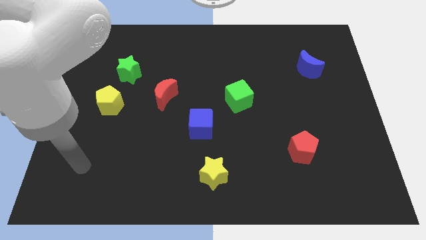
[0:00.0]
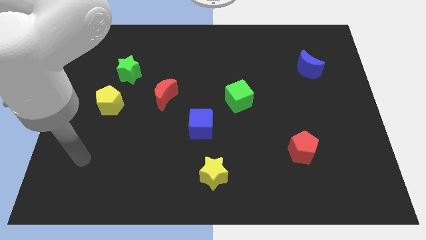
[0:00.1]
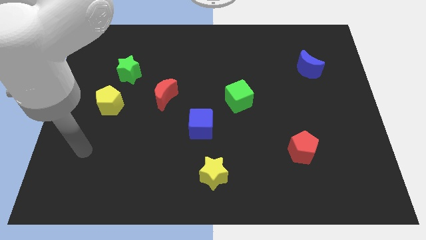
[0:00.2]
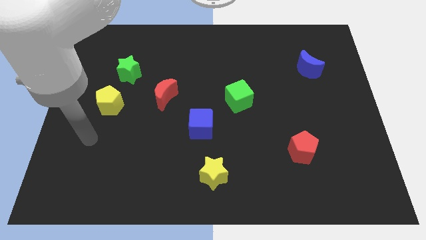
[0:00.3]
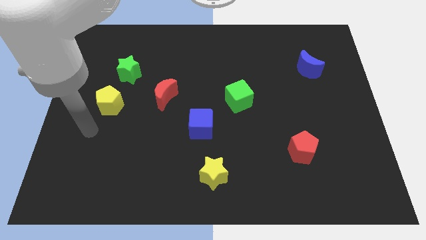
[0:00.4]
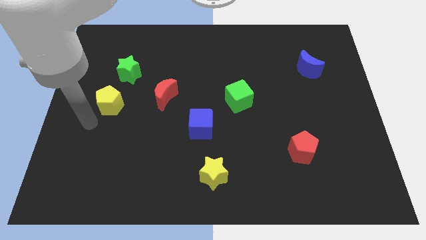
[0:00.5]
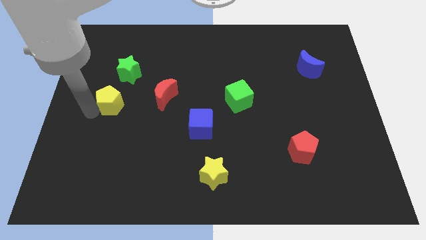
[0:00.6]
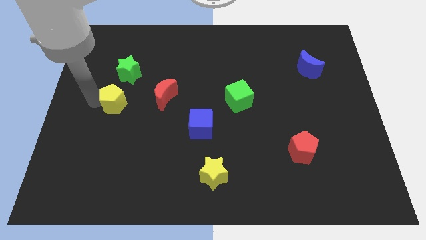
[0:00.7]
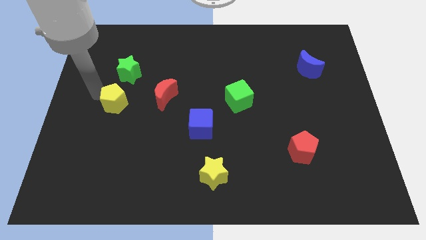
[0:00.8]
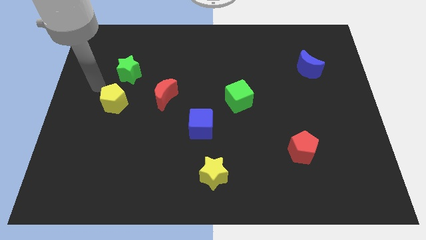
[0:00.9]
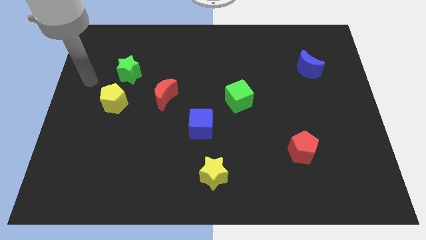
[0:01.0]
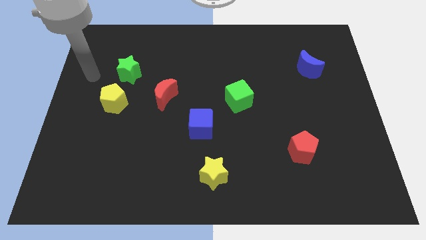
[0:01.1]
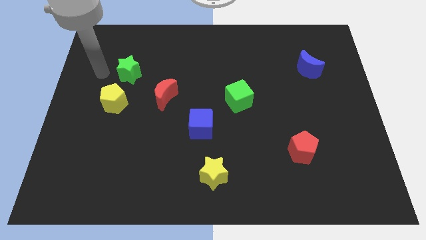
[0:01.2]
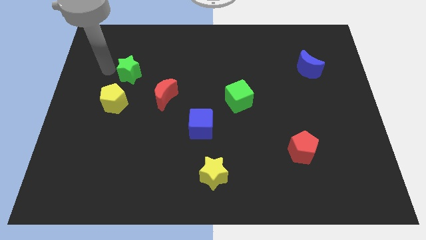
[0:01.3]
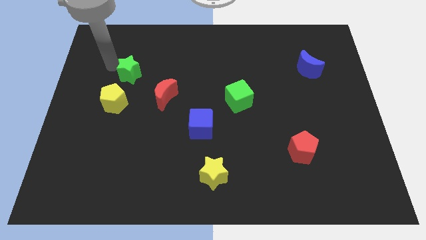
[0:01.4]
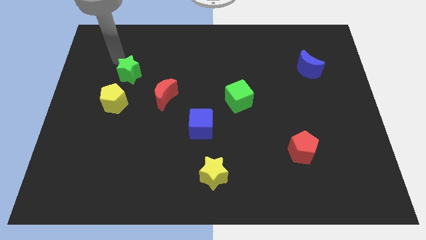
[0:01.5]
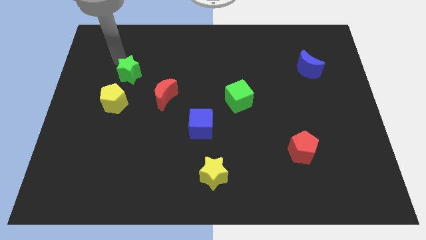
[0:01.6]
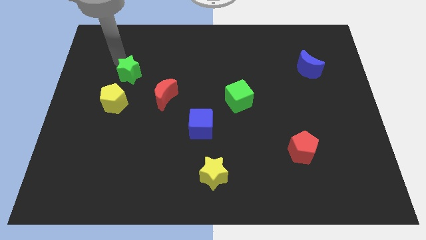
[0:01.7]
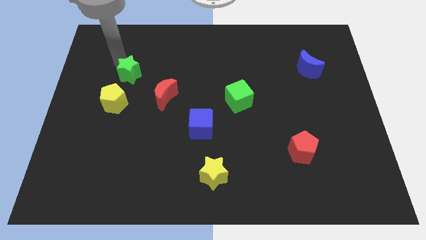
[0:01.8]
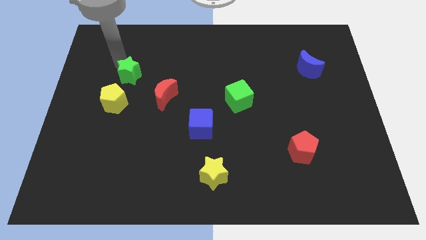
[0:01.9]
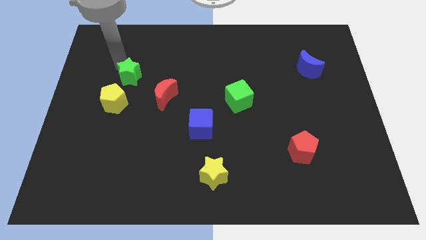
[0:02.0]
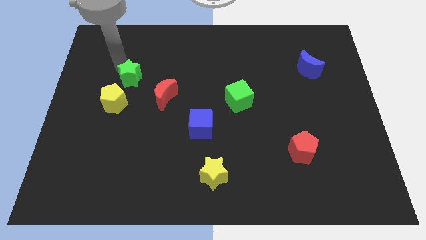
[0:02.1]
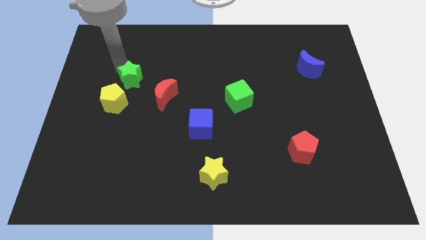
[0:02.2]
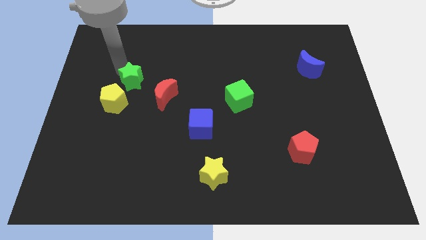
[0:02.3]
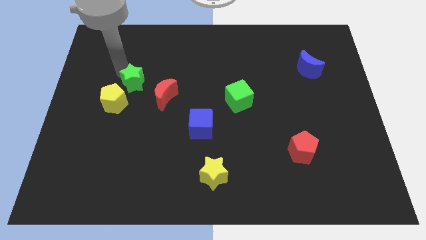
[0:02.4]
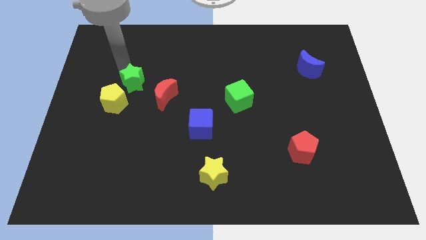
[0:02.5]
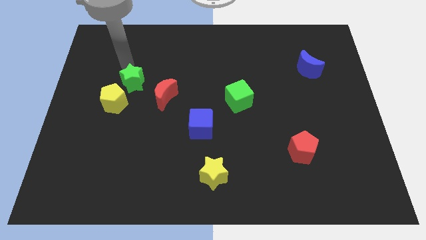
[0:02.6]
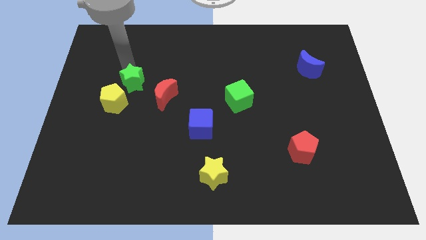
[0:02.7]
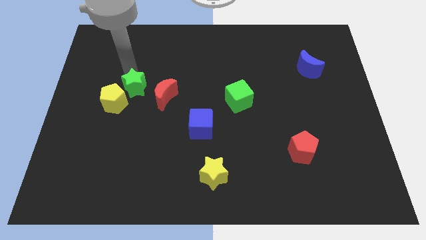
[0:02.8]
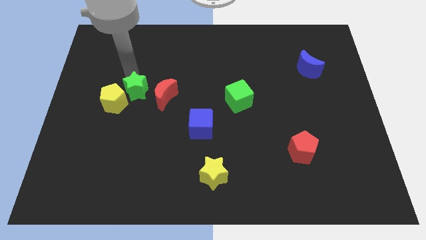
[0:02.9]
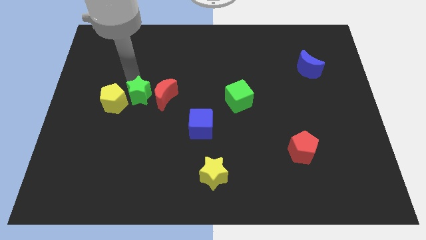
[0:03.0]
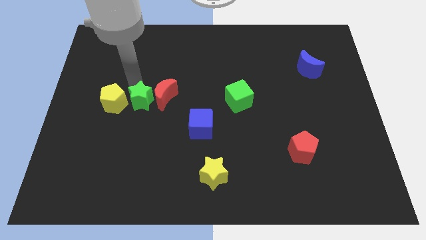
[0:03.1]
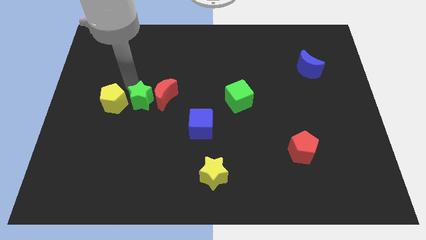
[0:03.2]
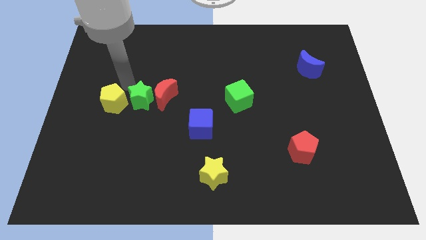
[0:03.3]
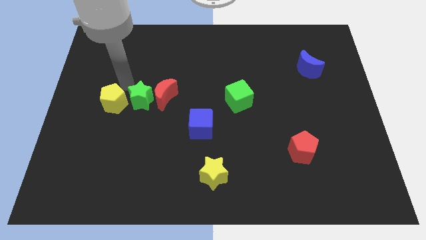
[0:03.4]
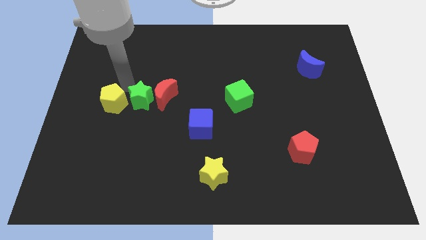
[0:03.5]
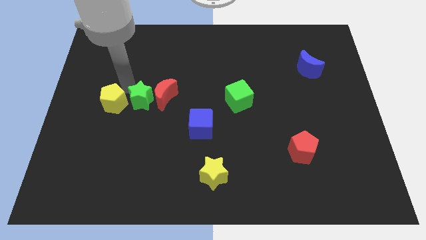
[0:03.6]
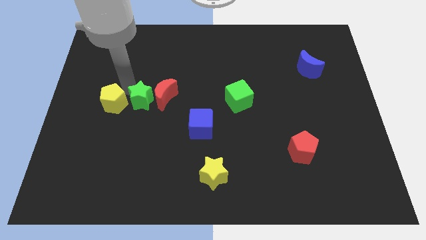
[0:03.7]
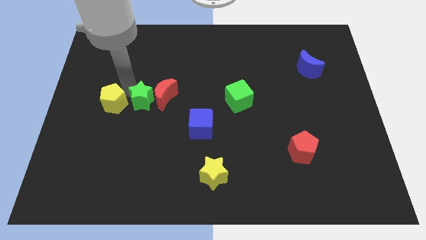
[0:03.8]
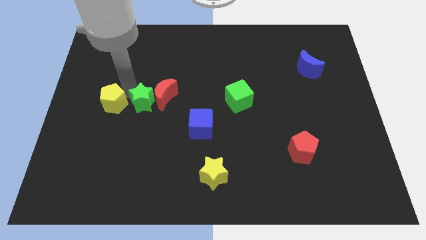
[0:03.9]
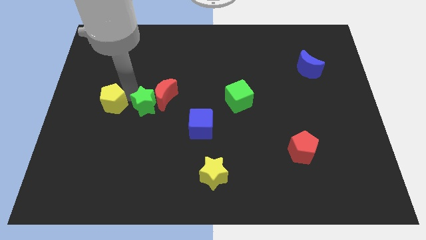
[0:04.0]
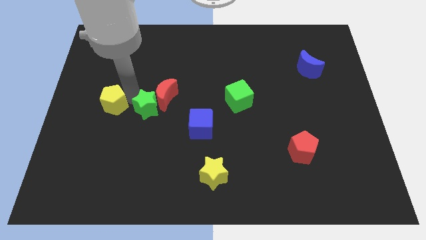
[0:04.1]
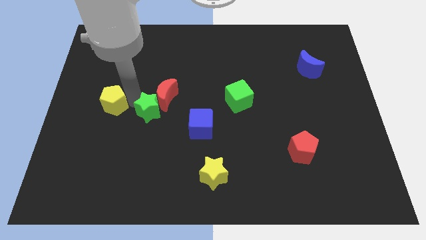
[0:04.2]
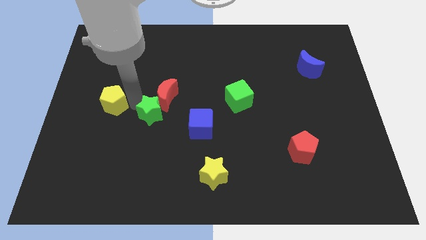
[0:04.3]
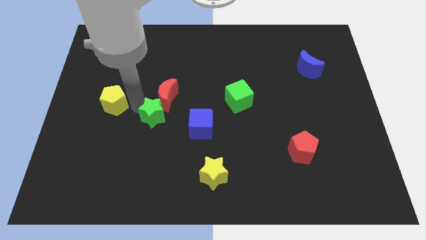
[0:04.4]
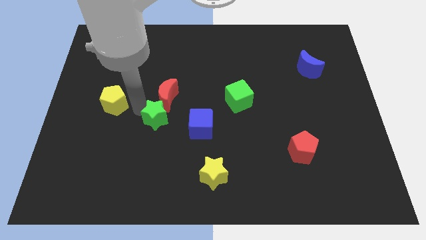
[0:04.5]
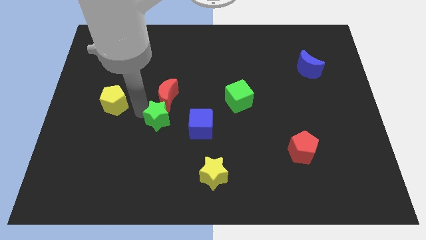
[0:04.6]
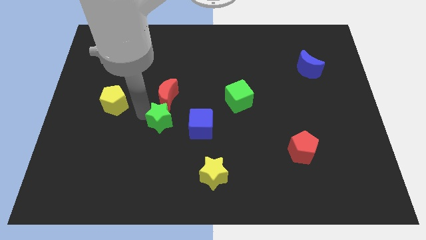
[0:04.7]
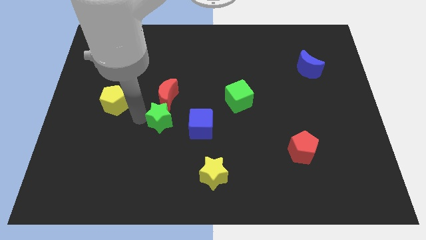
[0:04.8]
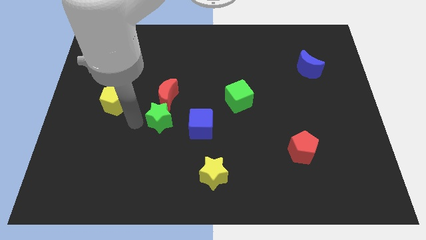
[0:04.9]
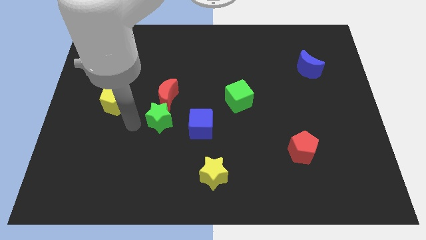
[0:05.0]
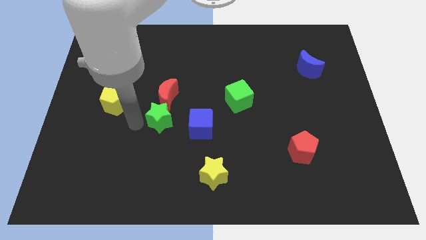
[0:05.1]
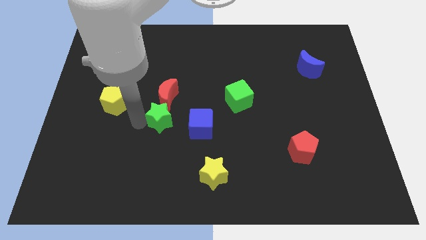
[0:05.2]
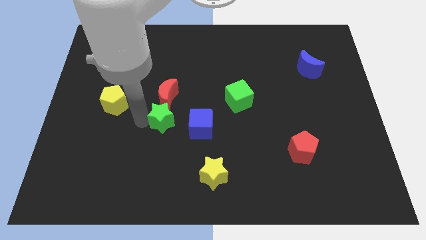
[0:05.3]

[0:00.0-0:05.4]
slide the green star to the bottom right side of the red moon

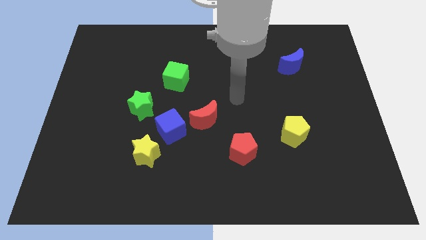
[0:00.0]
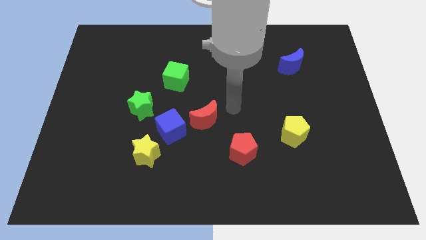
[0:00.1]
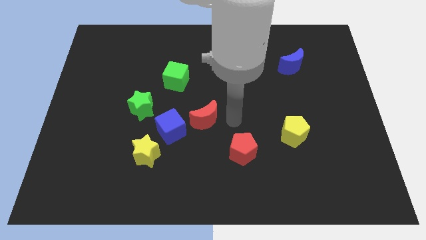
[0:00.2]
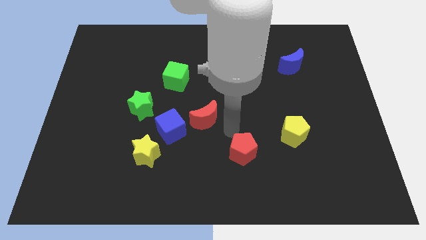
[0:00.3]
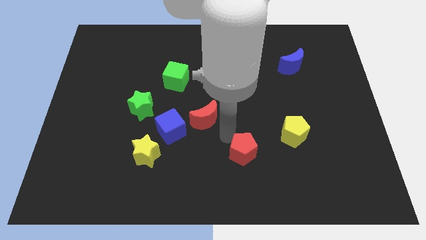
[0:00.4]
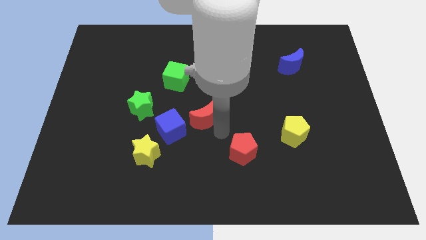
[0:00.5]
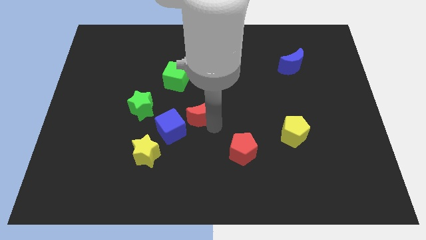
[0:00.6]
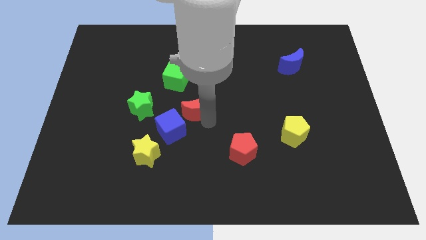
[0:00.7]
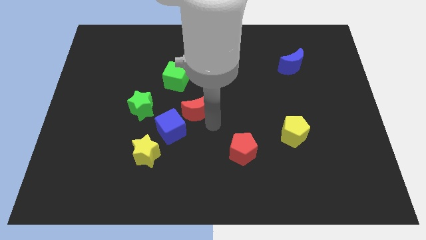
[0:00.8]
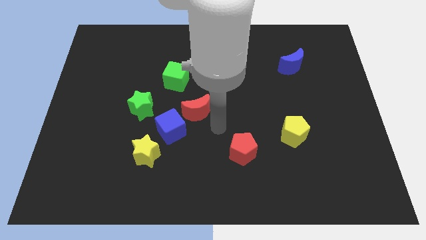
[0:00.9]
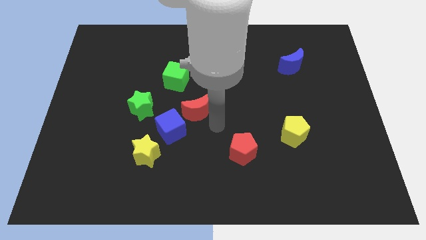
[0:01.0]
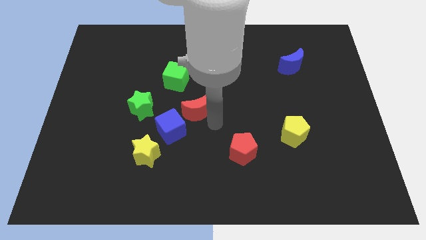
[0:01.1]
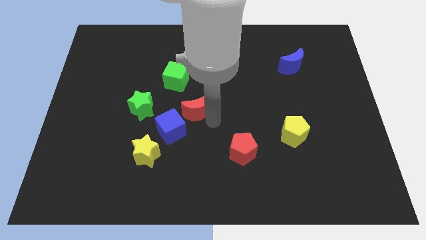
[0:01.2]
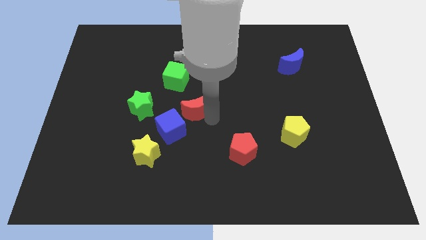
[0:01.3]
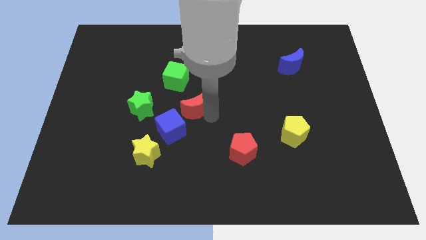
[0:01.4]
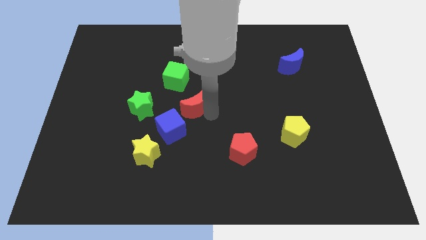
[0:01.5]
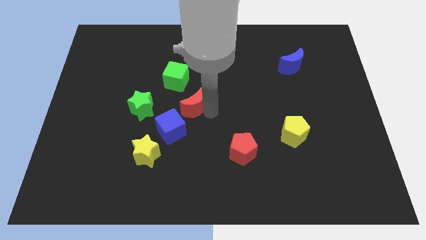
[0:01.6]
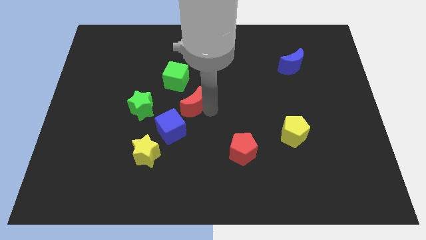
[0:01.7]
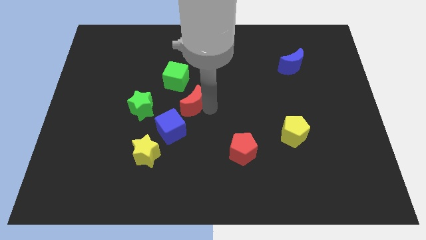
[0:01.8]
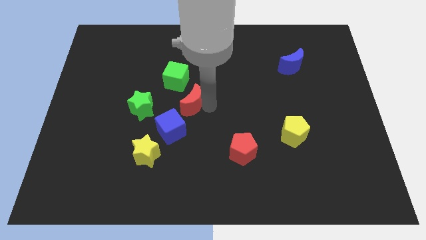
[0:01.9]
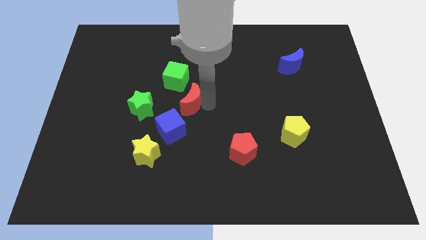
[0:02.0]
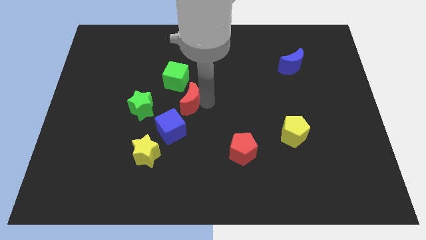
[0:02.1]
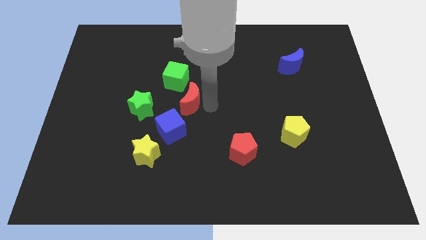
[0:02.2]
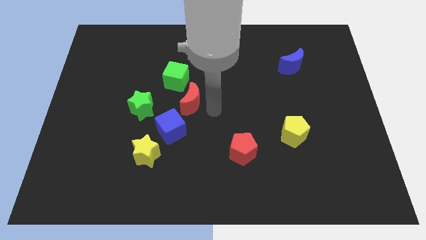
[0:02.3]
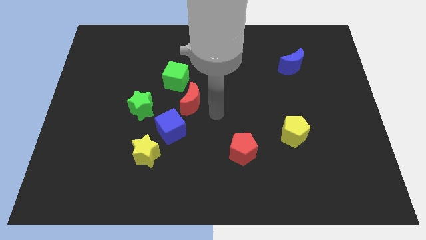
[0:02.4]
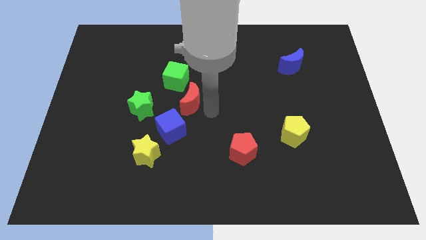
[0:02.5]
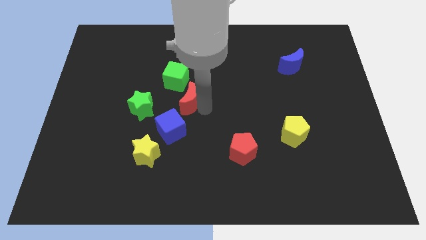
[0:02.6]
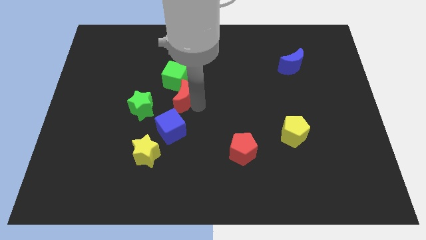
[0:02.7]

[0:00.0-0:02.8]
slide the red moon to the top right of the green star
